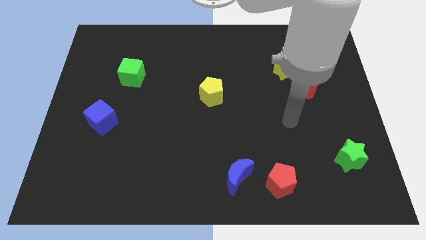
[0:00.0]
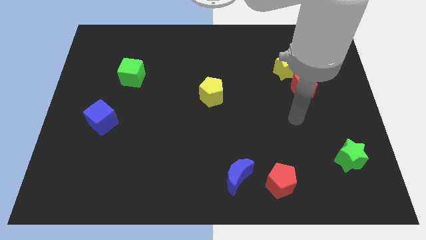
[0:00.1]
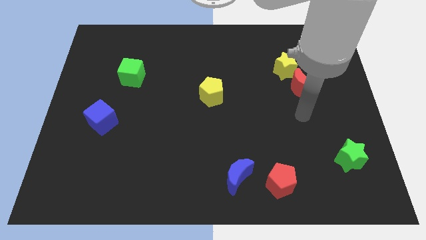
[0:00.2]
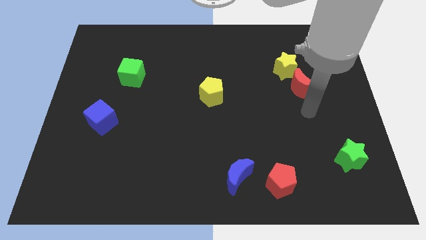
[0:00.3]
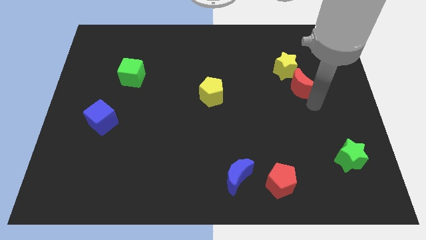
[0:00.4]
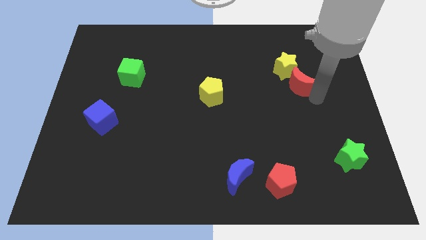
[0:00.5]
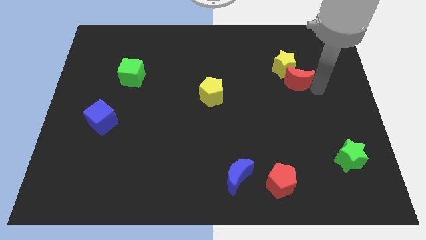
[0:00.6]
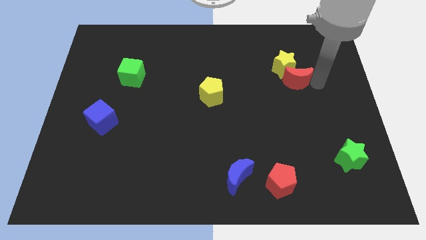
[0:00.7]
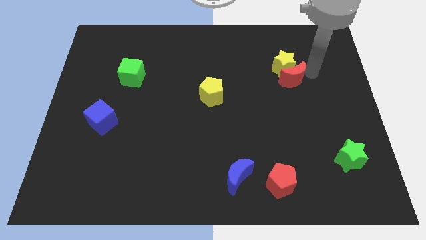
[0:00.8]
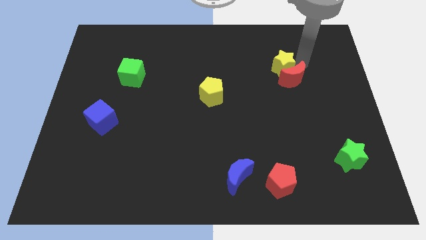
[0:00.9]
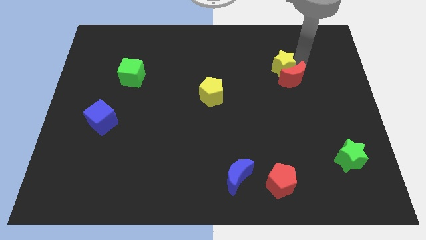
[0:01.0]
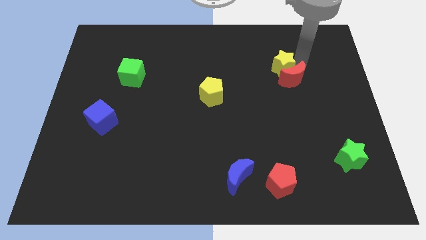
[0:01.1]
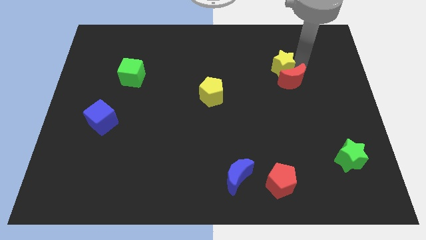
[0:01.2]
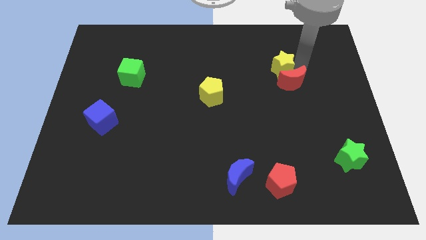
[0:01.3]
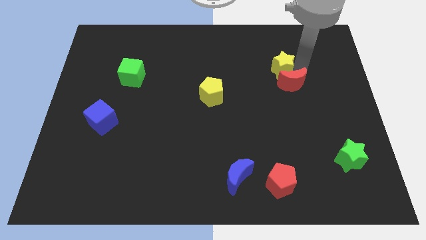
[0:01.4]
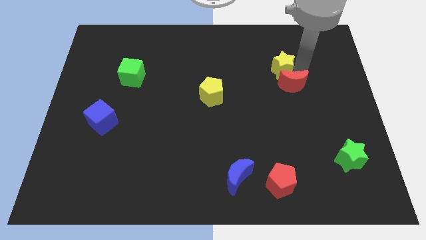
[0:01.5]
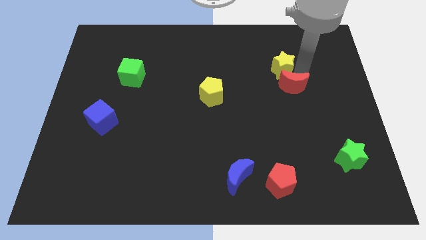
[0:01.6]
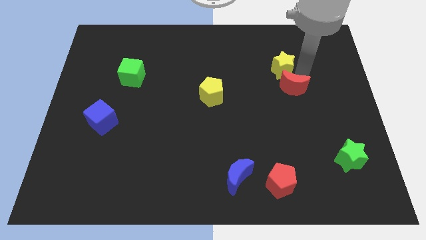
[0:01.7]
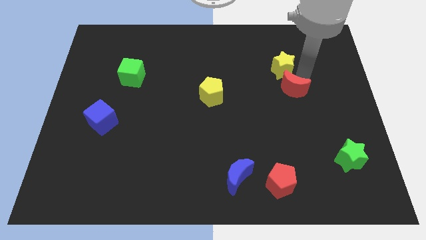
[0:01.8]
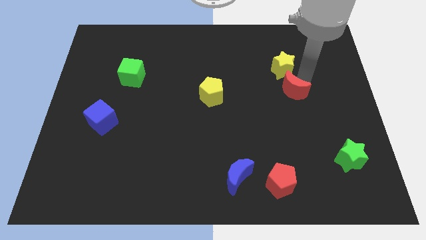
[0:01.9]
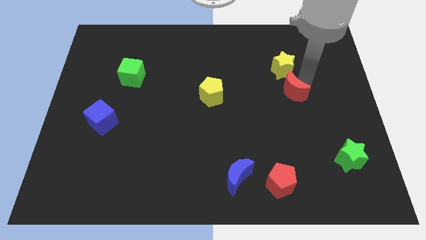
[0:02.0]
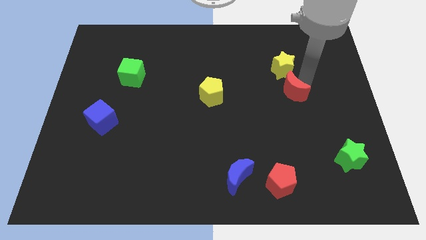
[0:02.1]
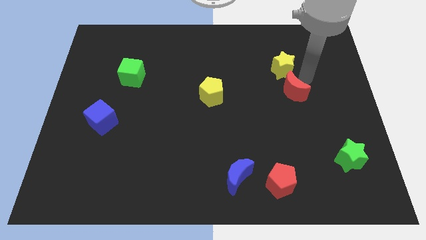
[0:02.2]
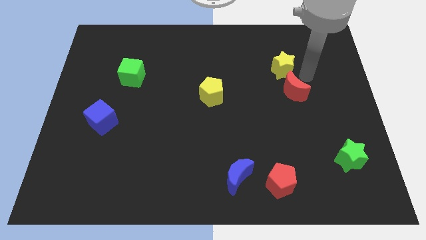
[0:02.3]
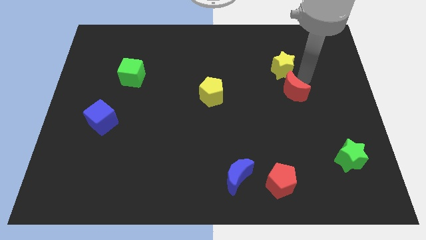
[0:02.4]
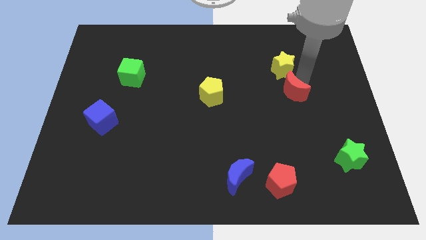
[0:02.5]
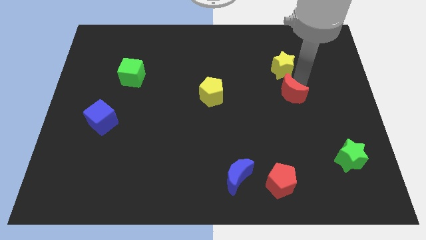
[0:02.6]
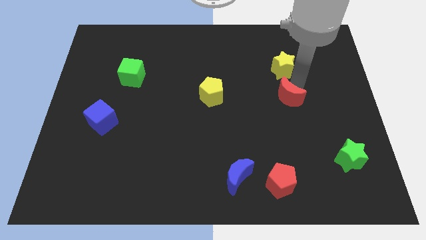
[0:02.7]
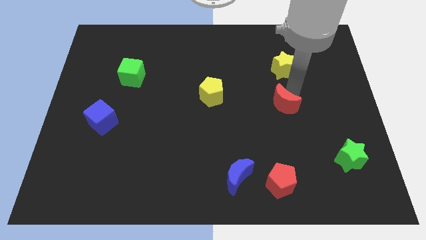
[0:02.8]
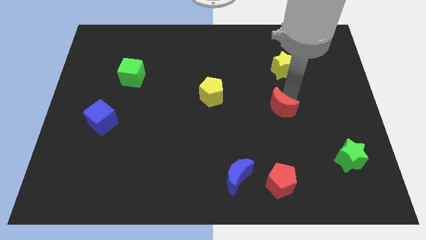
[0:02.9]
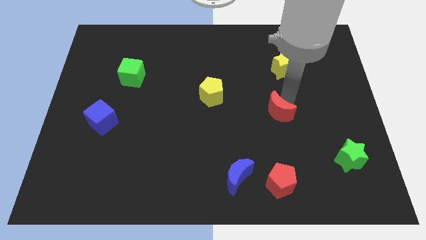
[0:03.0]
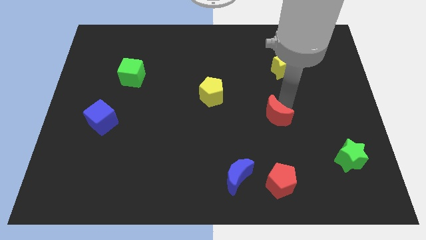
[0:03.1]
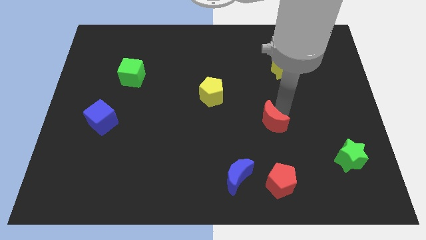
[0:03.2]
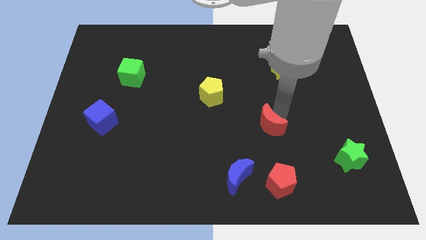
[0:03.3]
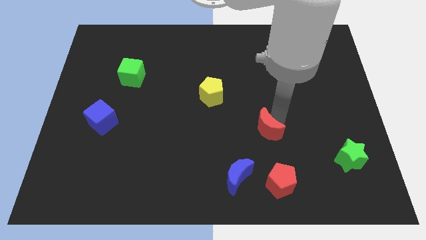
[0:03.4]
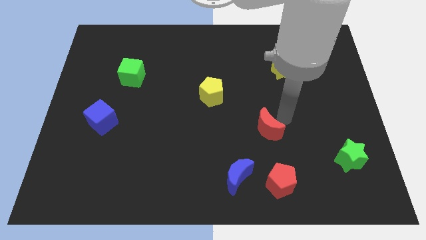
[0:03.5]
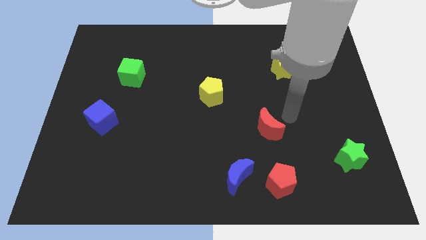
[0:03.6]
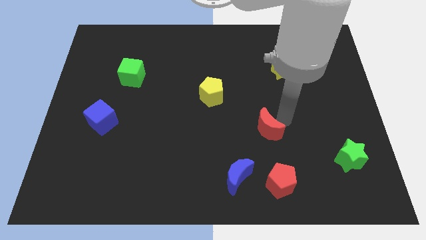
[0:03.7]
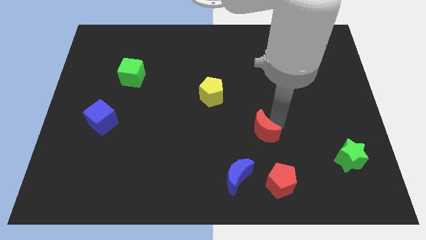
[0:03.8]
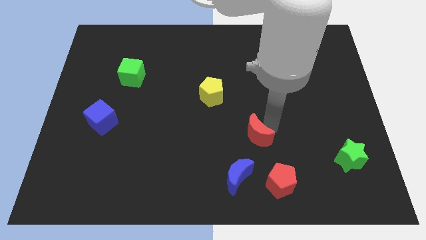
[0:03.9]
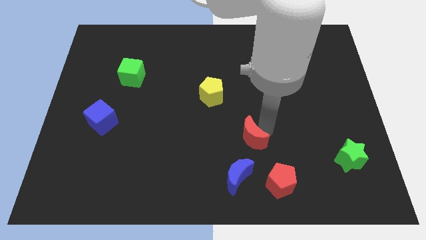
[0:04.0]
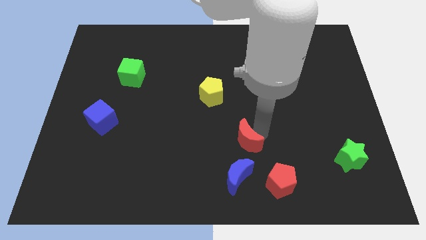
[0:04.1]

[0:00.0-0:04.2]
push the red moon downwards and left diagonally

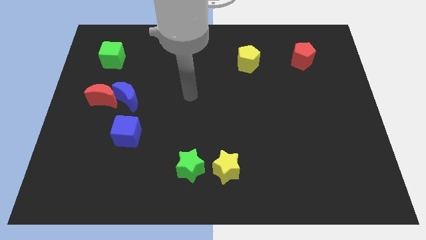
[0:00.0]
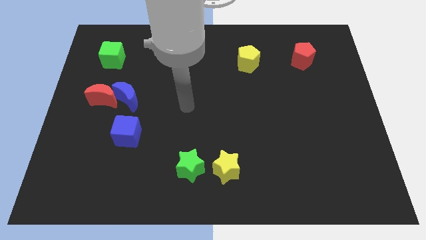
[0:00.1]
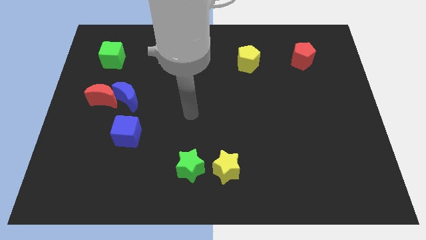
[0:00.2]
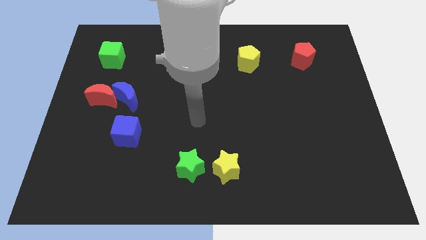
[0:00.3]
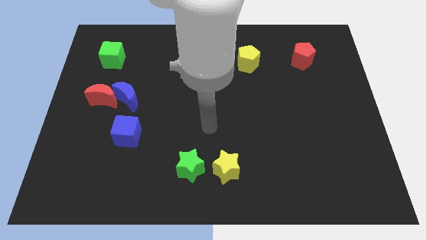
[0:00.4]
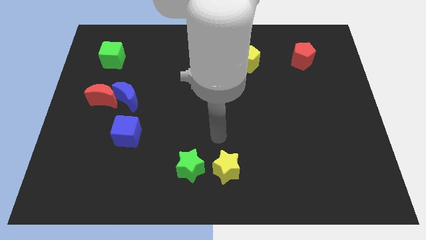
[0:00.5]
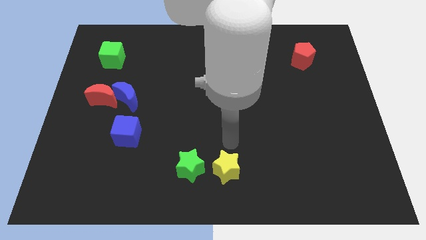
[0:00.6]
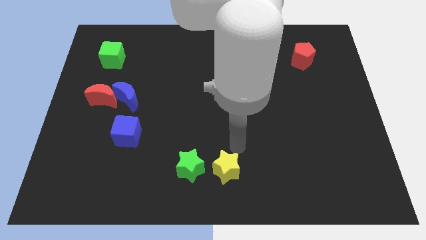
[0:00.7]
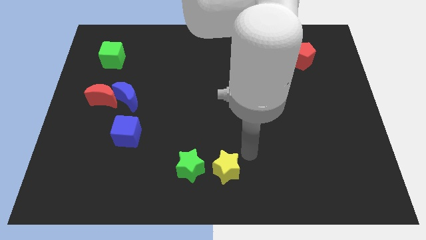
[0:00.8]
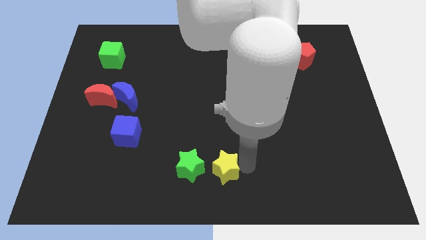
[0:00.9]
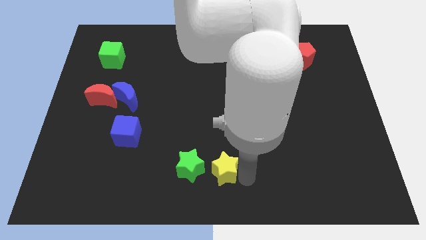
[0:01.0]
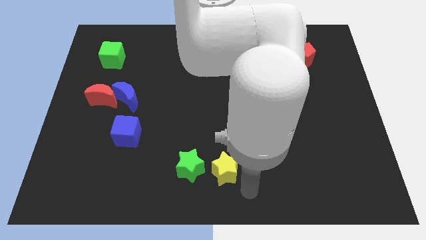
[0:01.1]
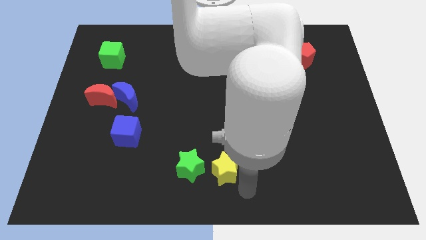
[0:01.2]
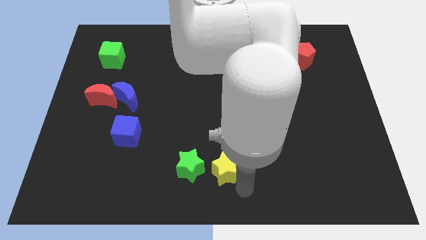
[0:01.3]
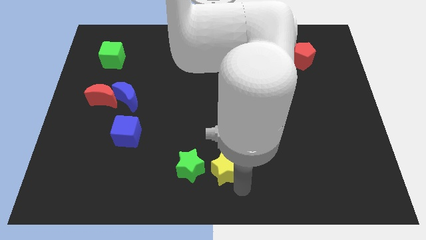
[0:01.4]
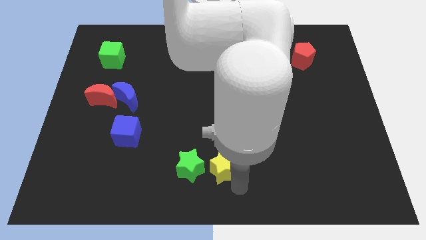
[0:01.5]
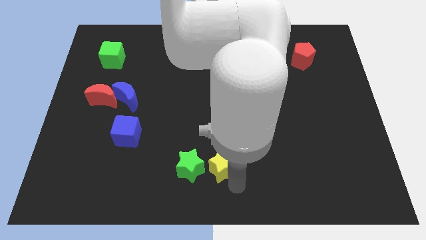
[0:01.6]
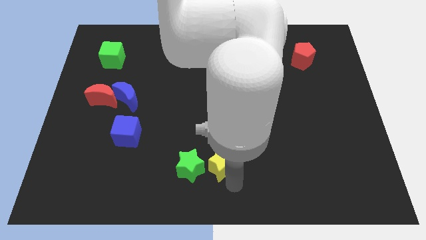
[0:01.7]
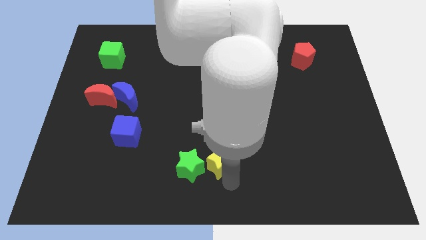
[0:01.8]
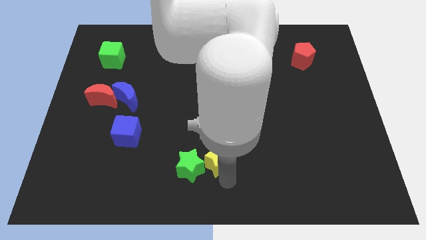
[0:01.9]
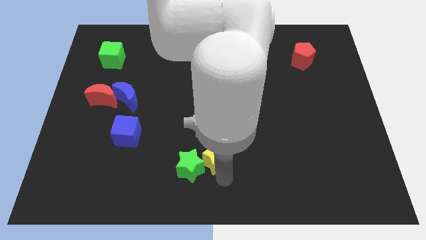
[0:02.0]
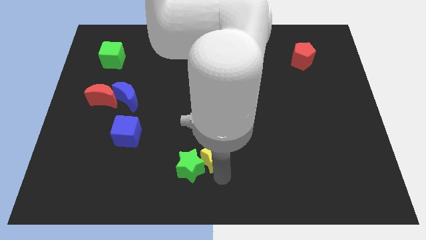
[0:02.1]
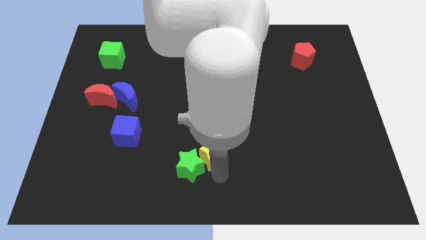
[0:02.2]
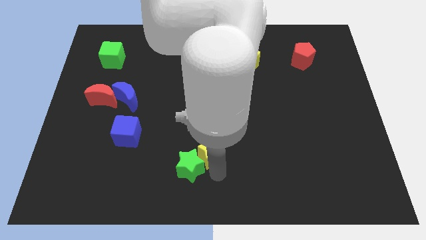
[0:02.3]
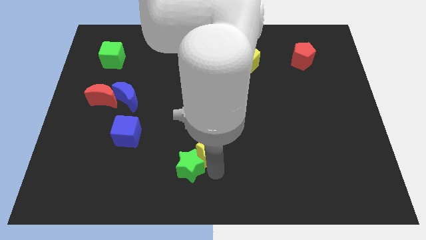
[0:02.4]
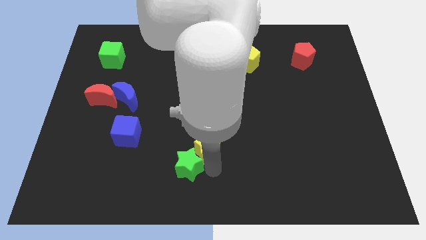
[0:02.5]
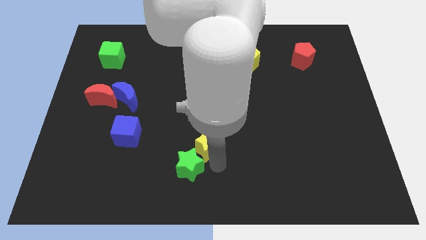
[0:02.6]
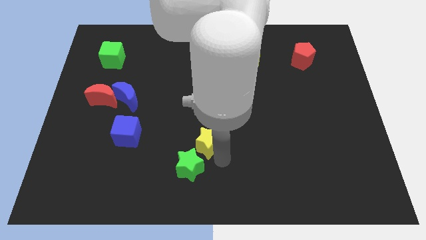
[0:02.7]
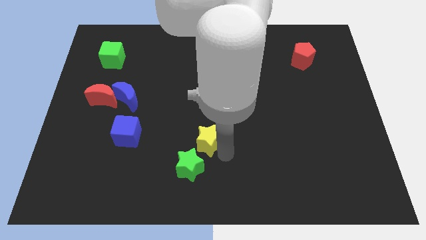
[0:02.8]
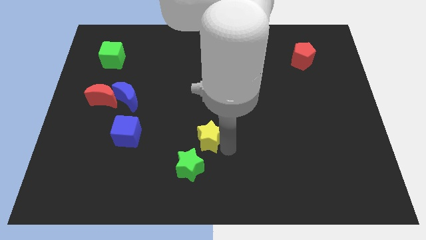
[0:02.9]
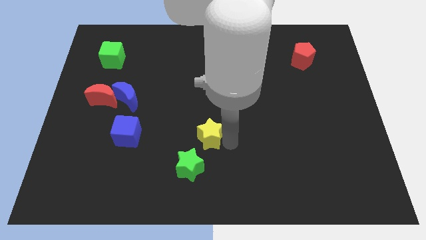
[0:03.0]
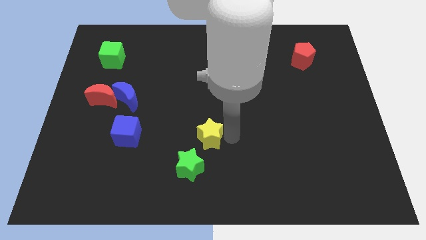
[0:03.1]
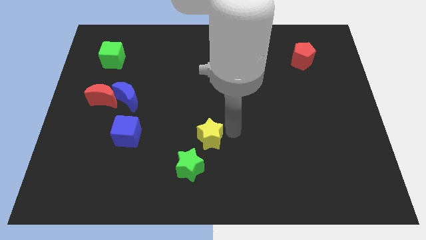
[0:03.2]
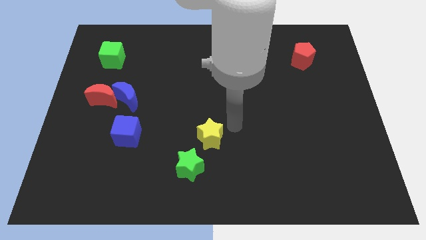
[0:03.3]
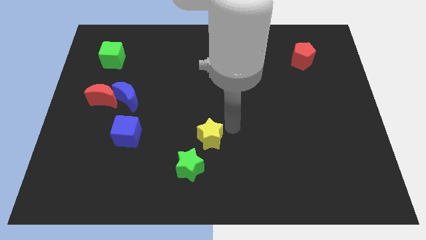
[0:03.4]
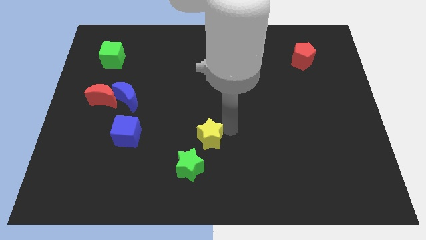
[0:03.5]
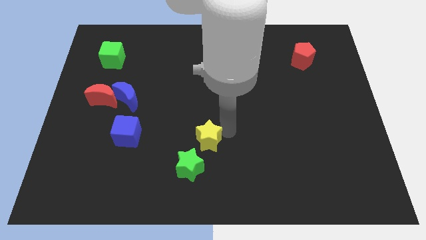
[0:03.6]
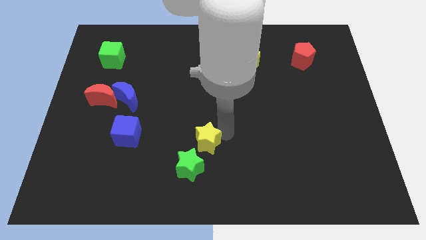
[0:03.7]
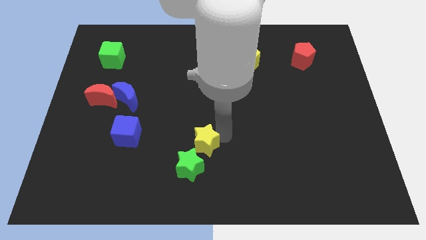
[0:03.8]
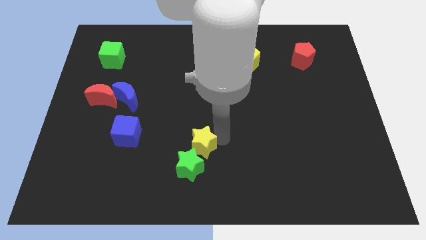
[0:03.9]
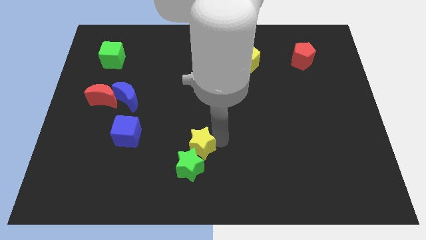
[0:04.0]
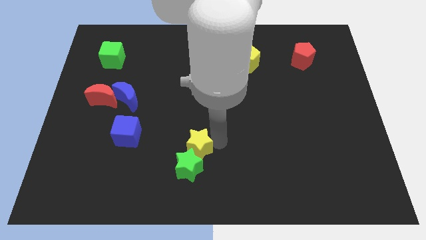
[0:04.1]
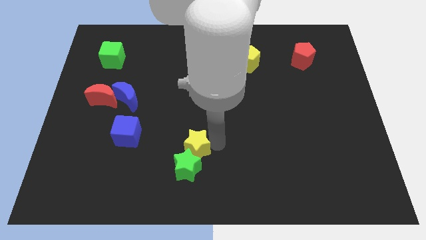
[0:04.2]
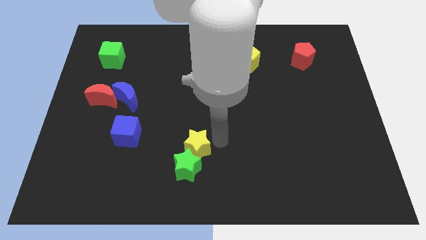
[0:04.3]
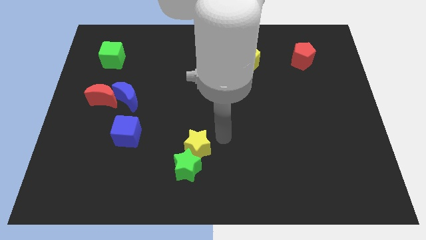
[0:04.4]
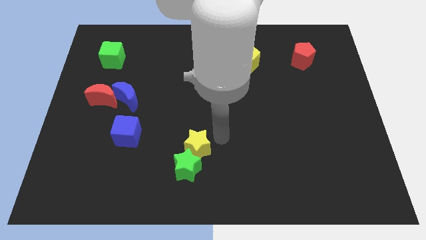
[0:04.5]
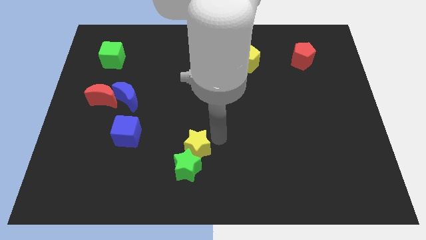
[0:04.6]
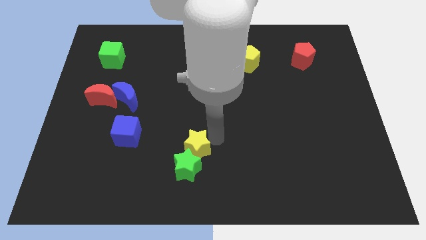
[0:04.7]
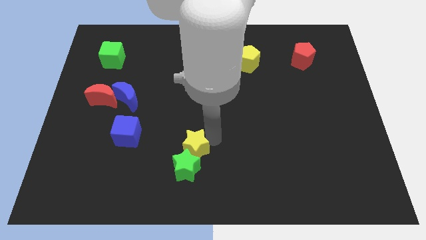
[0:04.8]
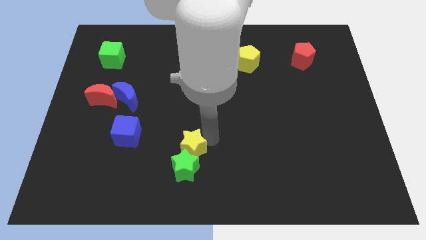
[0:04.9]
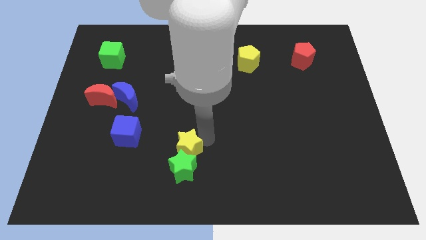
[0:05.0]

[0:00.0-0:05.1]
move the yellow star a bit to the left
